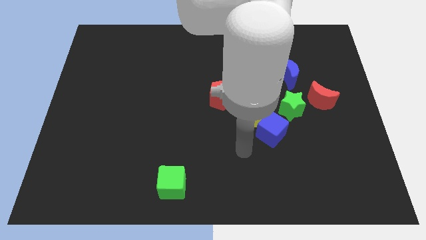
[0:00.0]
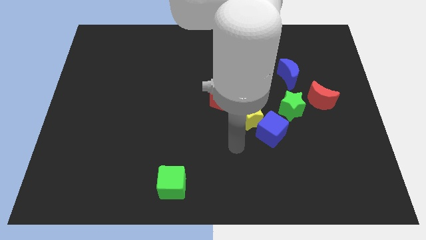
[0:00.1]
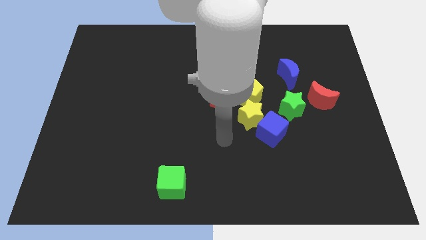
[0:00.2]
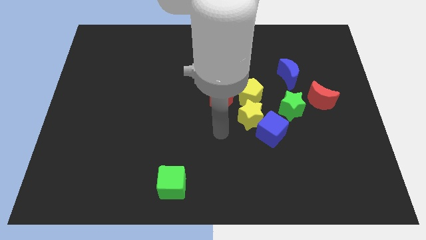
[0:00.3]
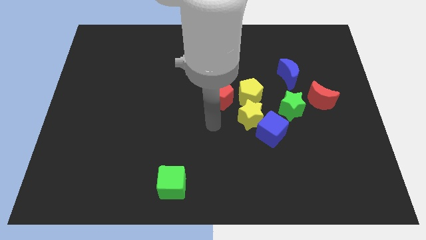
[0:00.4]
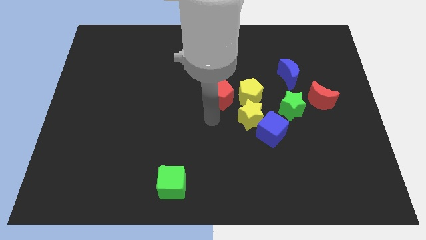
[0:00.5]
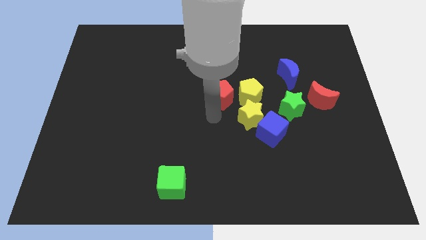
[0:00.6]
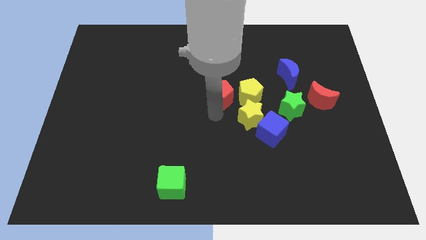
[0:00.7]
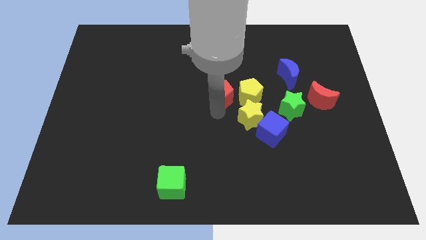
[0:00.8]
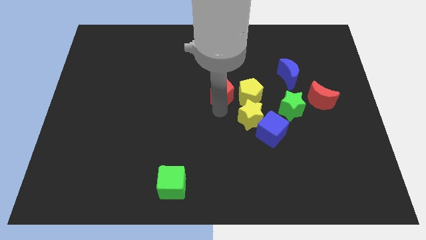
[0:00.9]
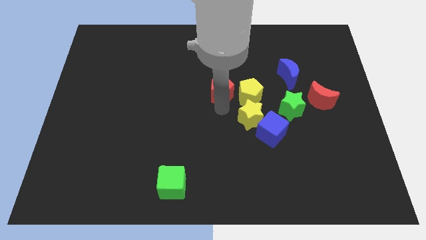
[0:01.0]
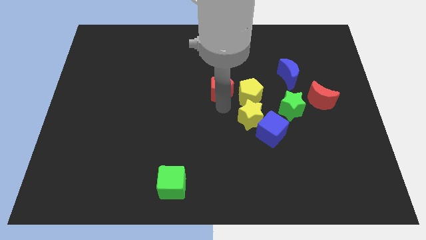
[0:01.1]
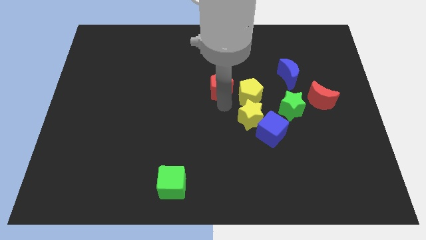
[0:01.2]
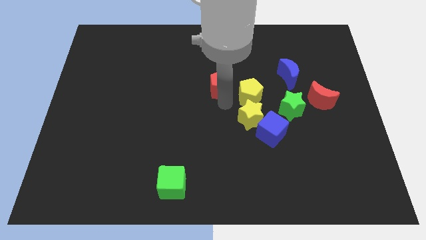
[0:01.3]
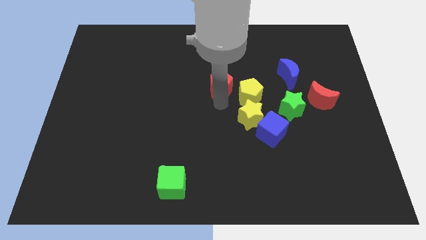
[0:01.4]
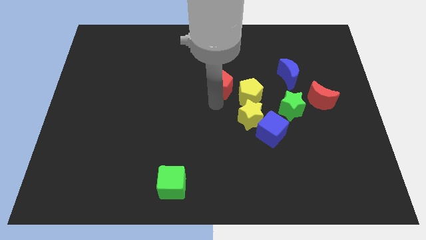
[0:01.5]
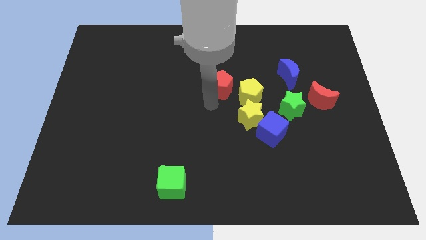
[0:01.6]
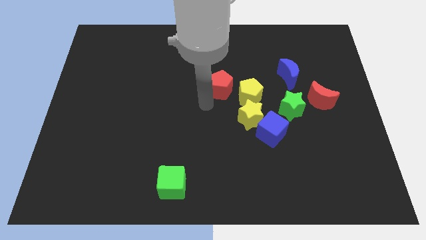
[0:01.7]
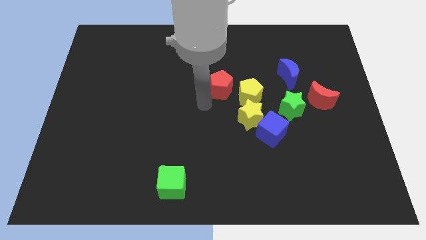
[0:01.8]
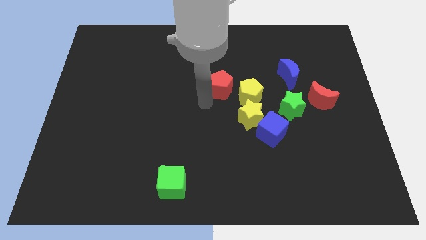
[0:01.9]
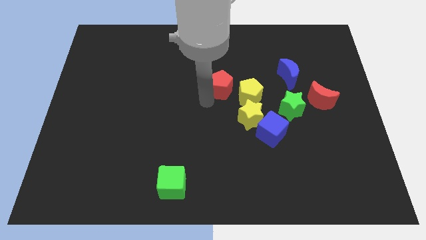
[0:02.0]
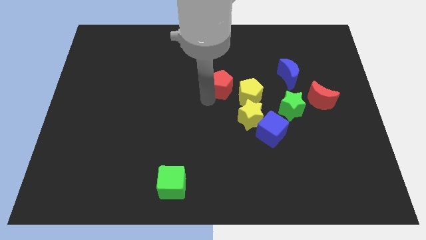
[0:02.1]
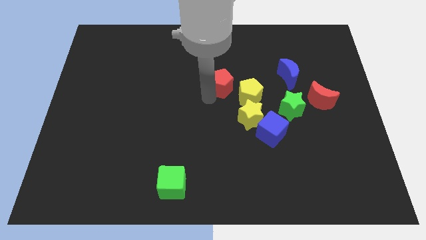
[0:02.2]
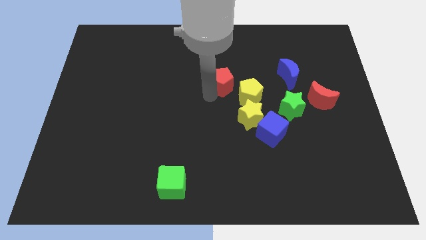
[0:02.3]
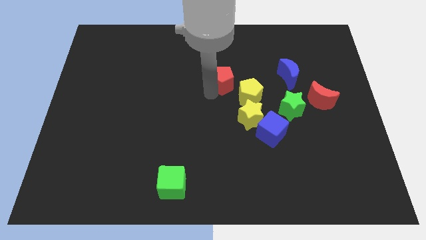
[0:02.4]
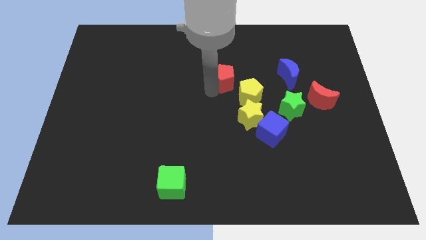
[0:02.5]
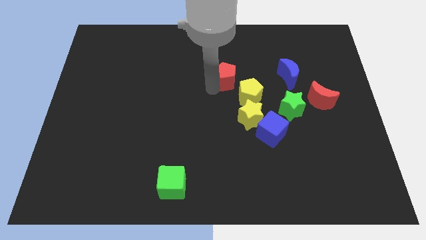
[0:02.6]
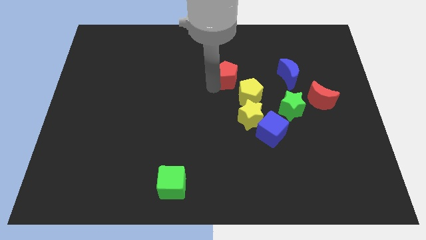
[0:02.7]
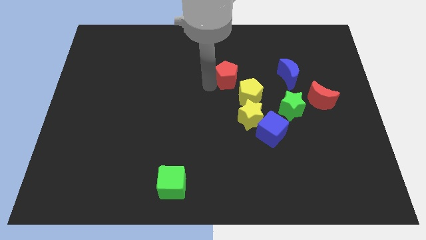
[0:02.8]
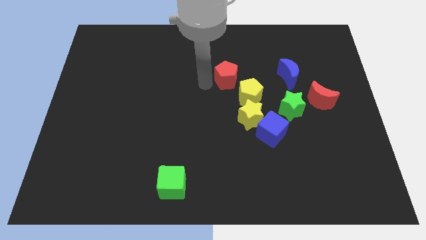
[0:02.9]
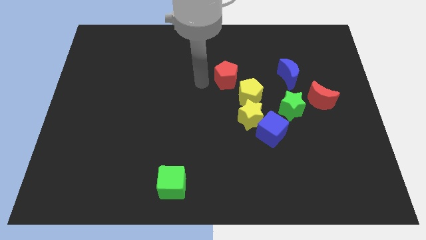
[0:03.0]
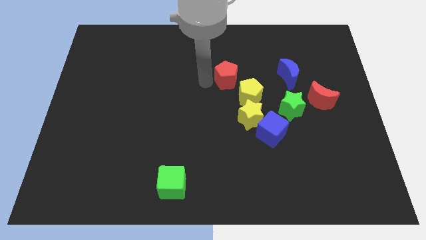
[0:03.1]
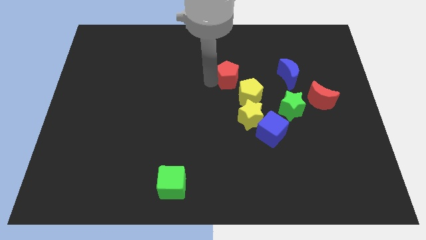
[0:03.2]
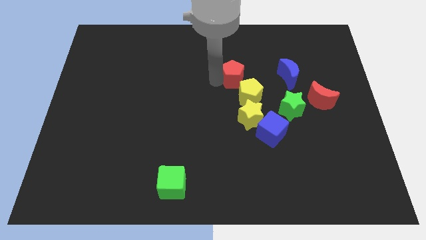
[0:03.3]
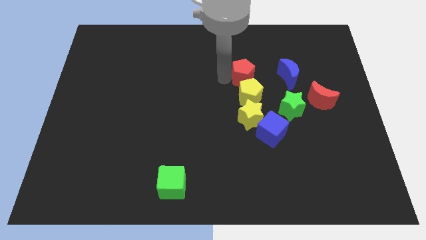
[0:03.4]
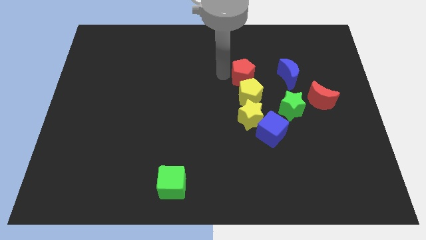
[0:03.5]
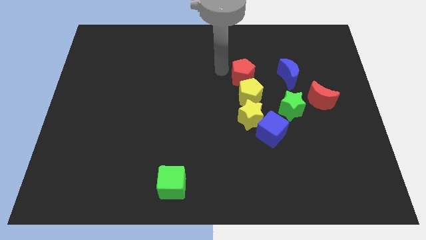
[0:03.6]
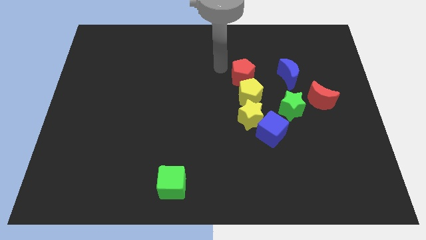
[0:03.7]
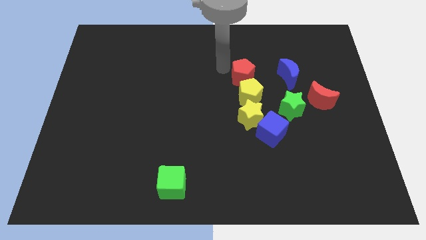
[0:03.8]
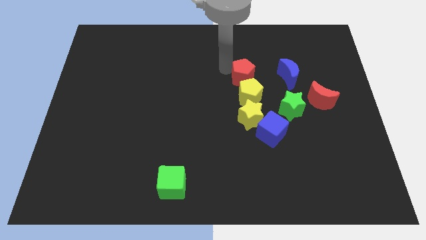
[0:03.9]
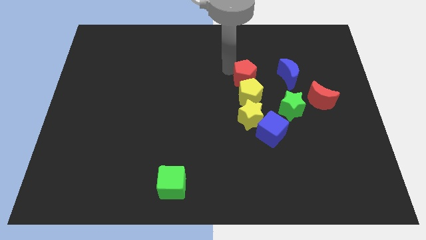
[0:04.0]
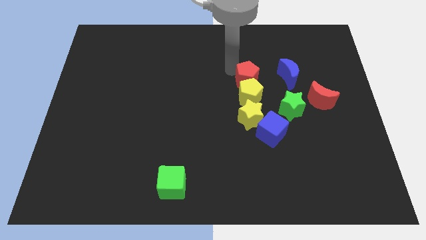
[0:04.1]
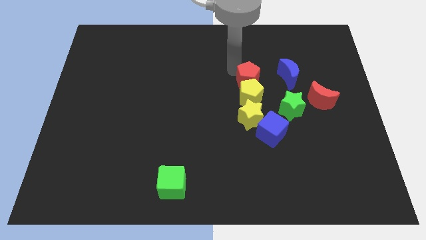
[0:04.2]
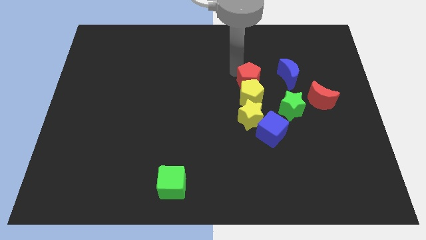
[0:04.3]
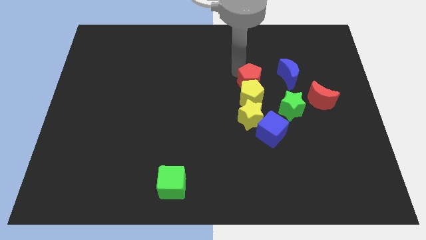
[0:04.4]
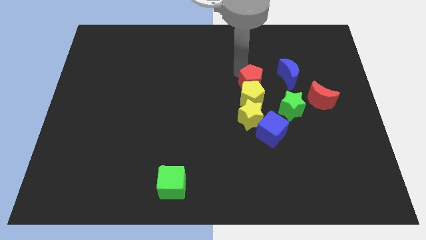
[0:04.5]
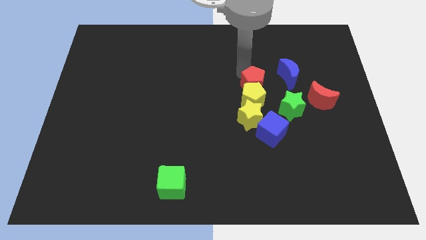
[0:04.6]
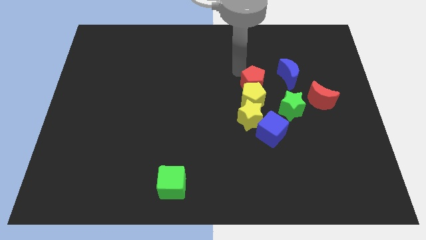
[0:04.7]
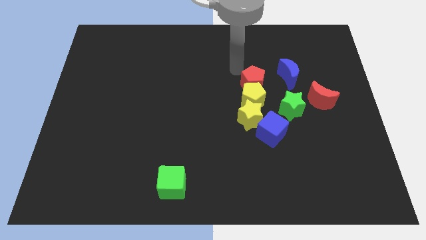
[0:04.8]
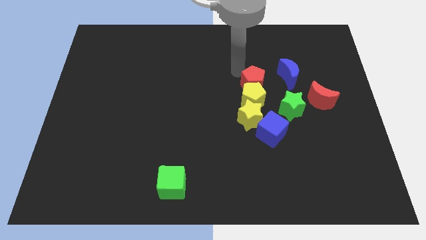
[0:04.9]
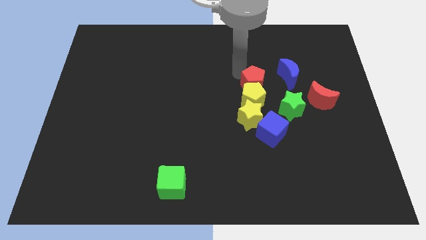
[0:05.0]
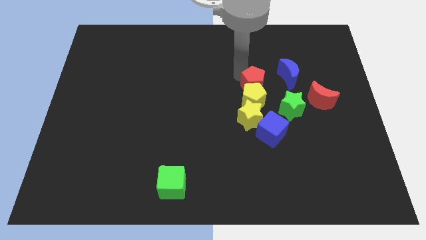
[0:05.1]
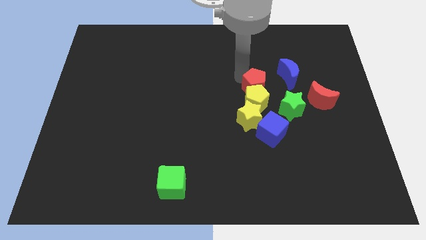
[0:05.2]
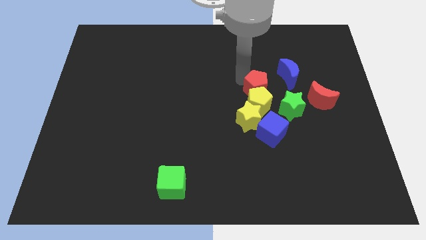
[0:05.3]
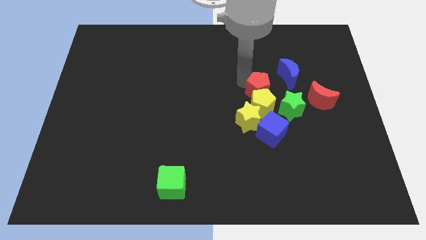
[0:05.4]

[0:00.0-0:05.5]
move the red pentagon to the top right of the yellow star

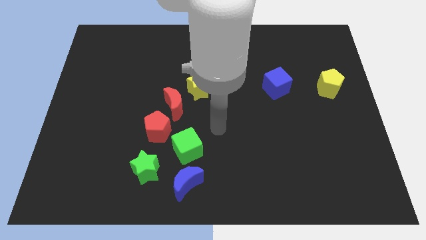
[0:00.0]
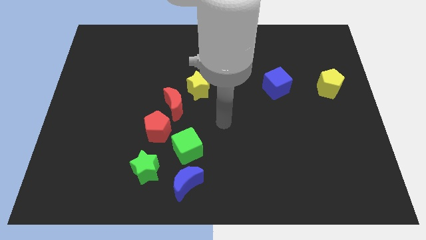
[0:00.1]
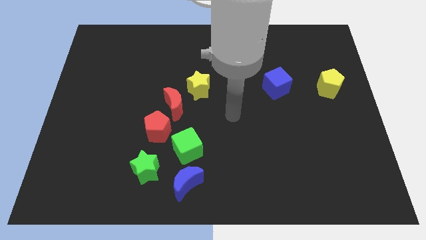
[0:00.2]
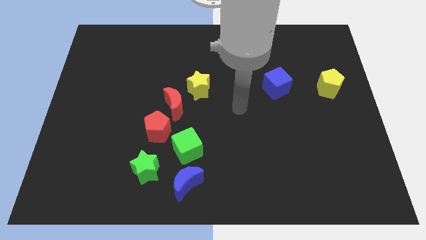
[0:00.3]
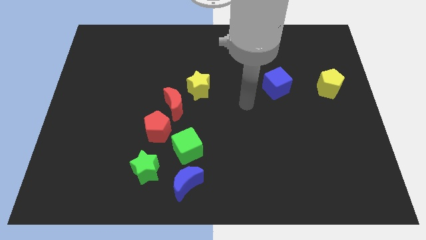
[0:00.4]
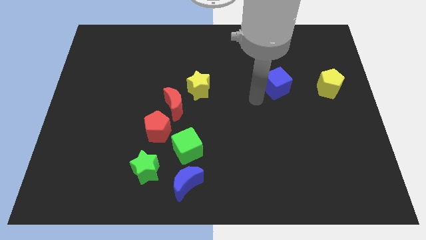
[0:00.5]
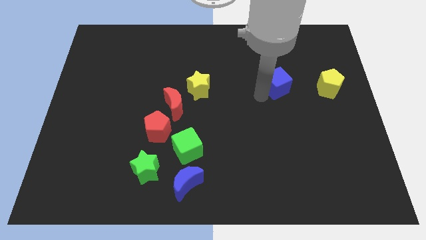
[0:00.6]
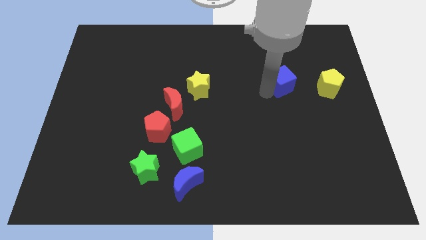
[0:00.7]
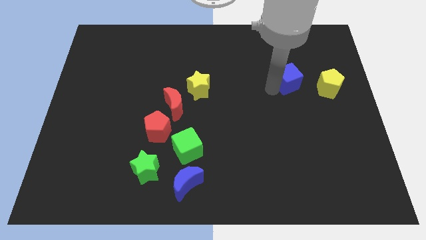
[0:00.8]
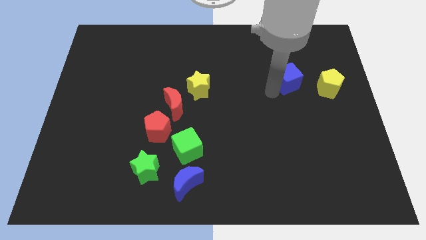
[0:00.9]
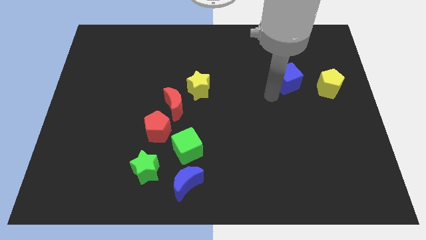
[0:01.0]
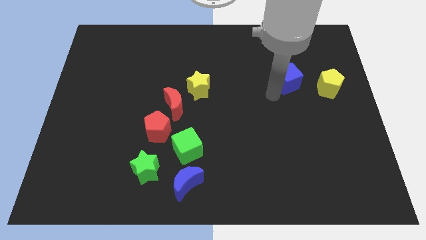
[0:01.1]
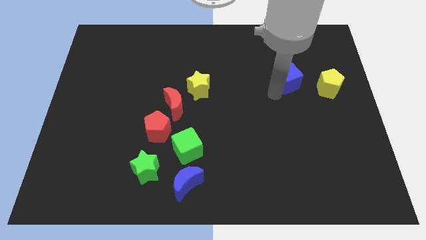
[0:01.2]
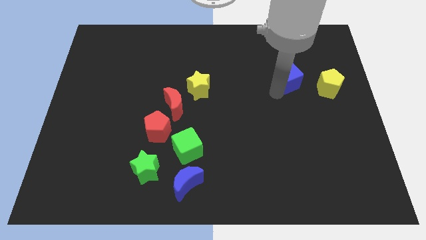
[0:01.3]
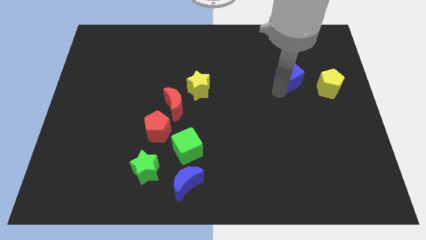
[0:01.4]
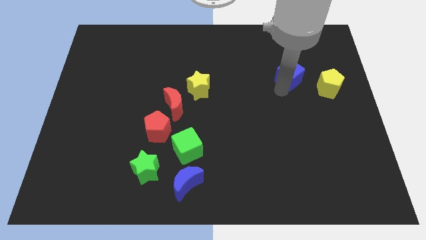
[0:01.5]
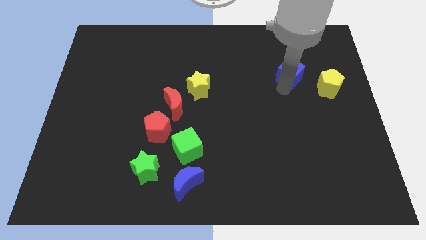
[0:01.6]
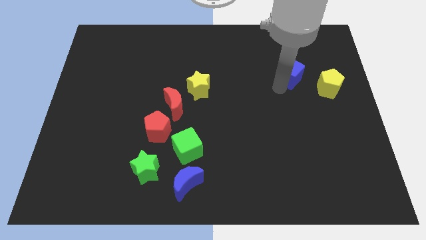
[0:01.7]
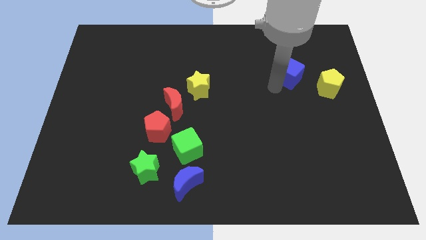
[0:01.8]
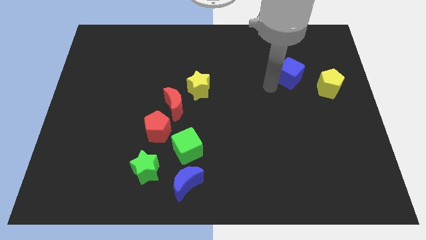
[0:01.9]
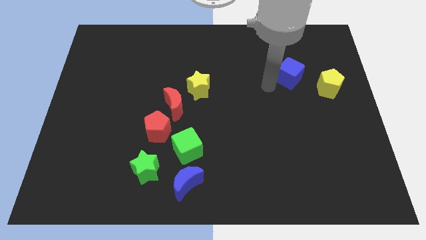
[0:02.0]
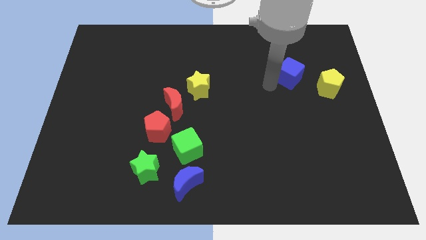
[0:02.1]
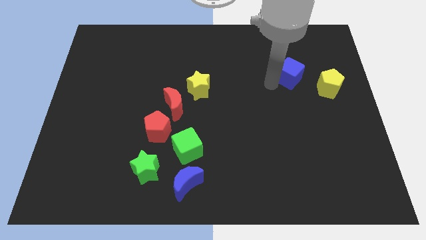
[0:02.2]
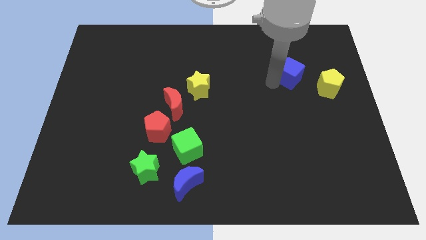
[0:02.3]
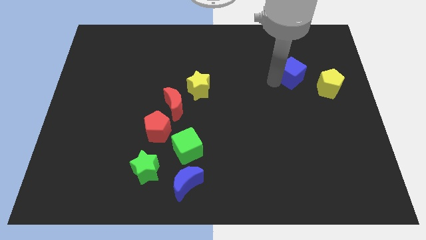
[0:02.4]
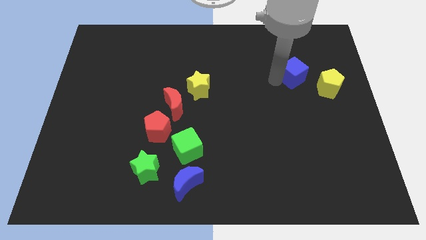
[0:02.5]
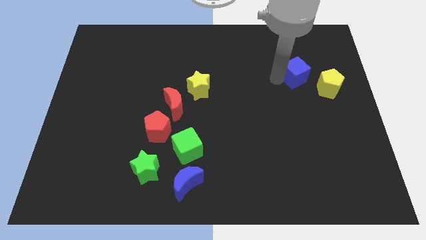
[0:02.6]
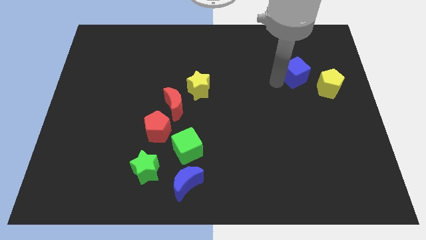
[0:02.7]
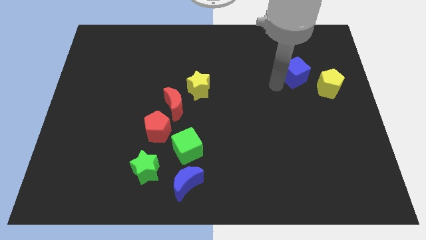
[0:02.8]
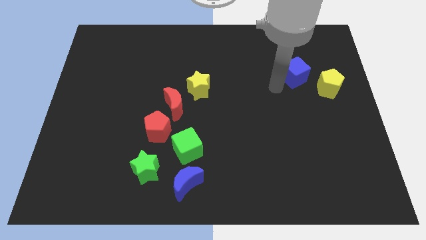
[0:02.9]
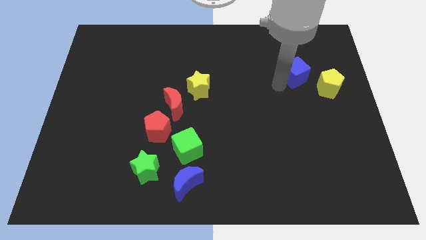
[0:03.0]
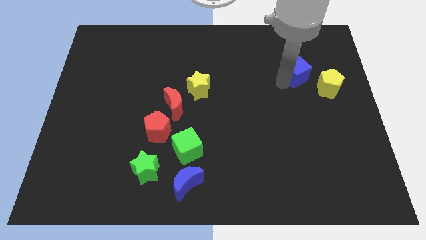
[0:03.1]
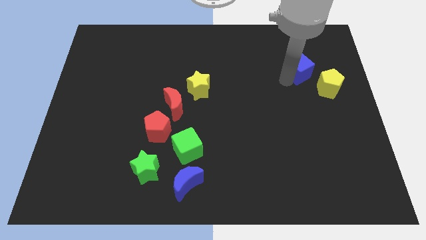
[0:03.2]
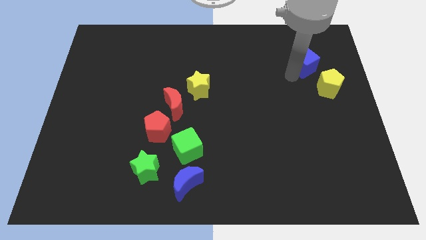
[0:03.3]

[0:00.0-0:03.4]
move the blue cube to the top side of the yellow pentagon
